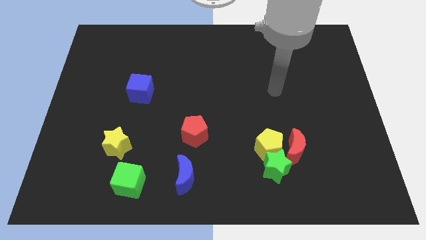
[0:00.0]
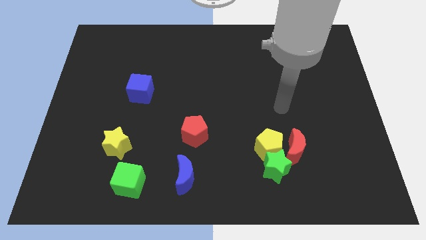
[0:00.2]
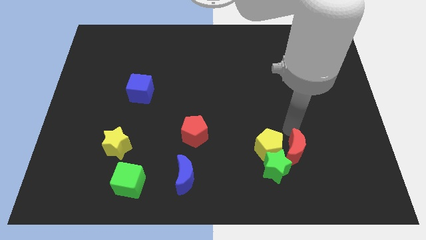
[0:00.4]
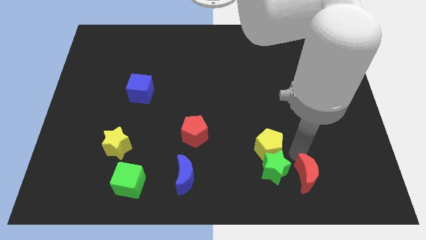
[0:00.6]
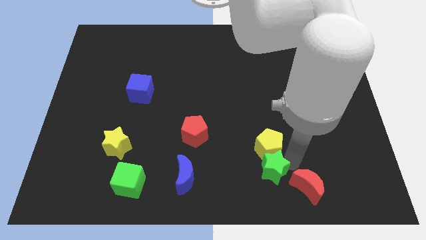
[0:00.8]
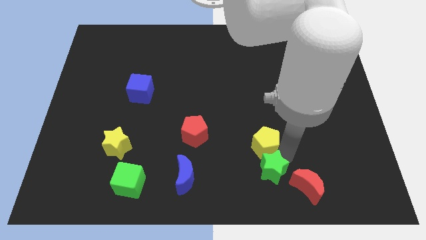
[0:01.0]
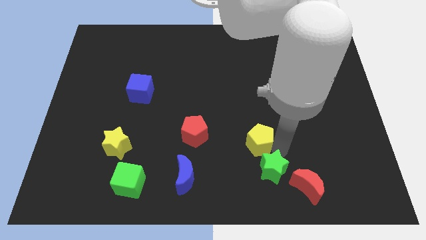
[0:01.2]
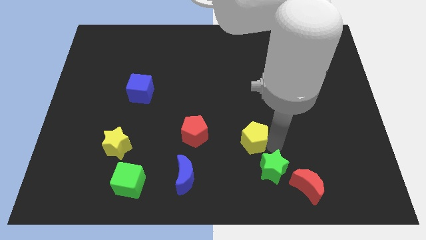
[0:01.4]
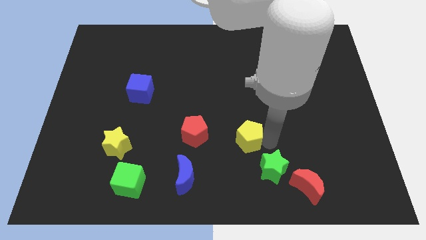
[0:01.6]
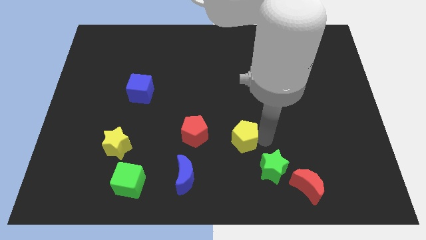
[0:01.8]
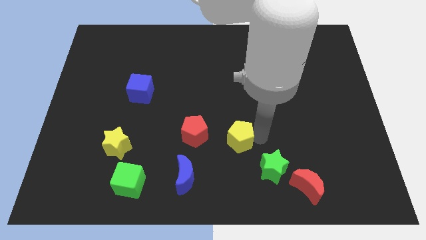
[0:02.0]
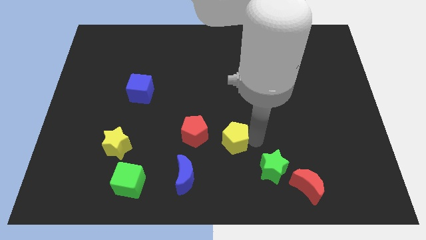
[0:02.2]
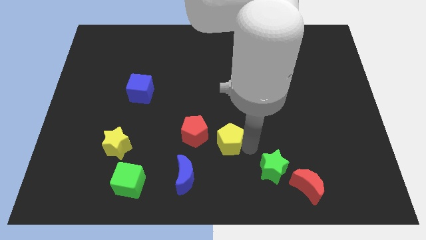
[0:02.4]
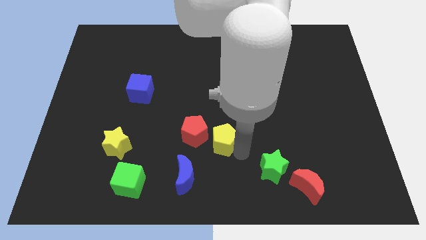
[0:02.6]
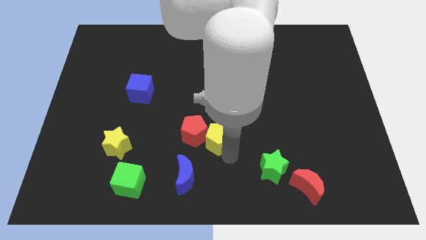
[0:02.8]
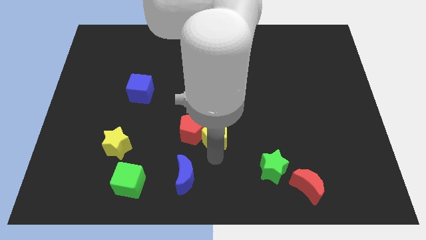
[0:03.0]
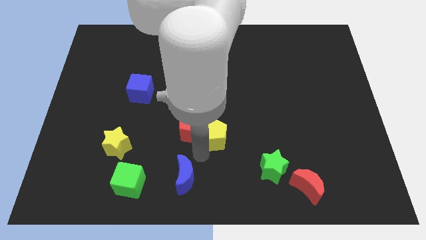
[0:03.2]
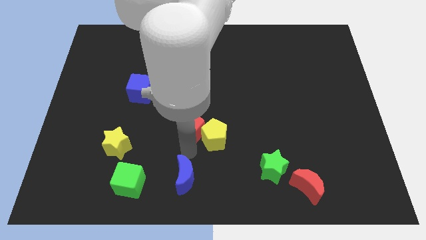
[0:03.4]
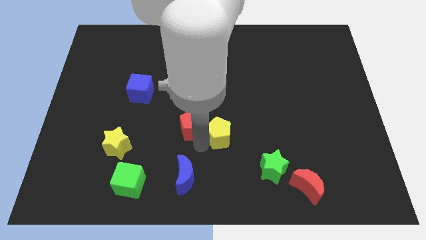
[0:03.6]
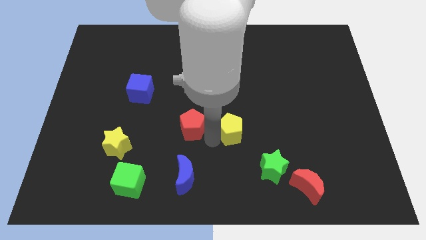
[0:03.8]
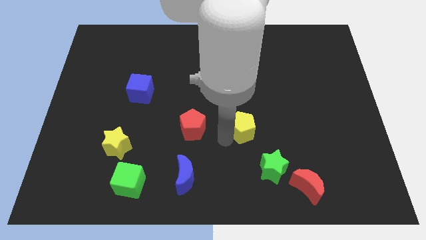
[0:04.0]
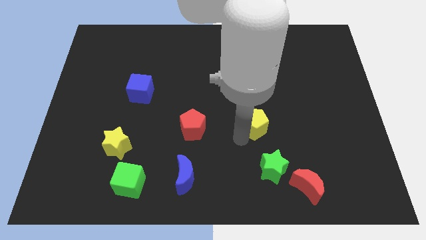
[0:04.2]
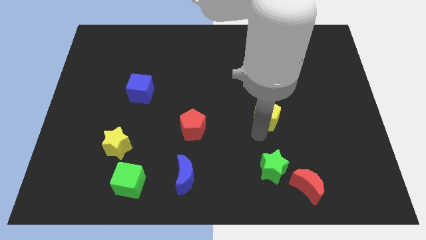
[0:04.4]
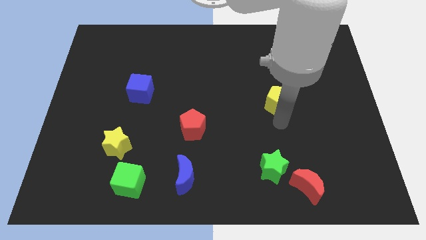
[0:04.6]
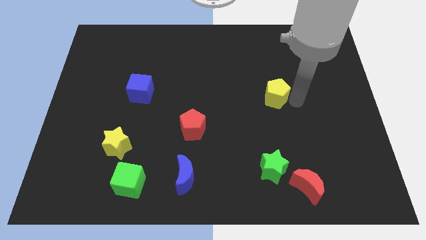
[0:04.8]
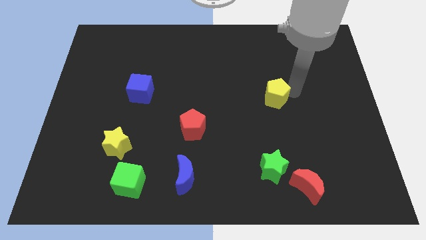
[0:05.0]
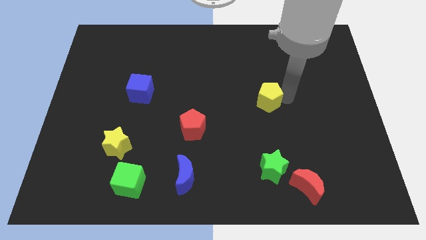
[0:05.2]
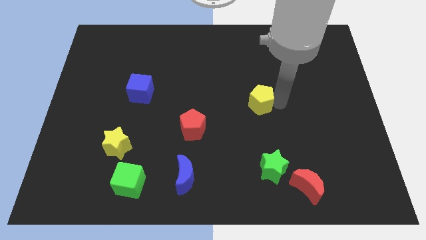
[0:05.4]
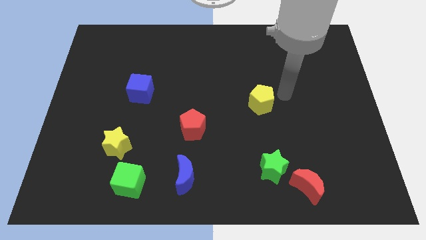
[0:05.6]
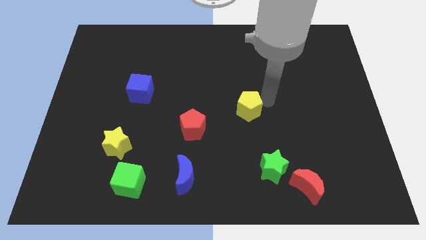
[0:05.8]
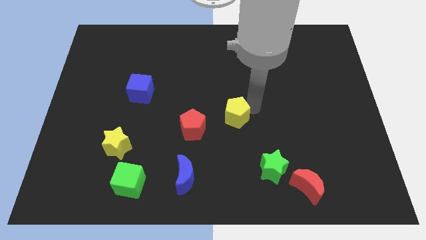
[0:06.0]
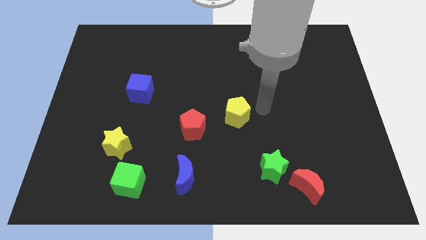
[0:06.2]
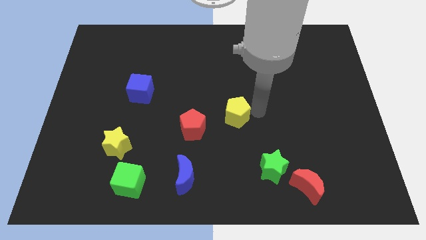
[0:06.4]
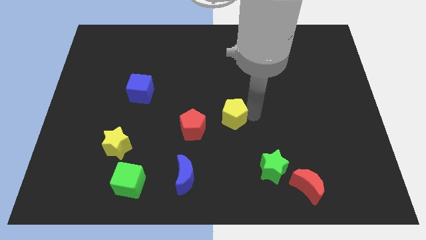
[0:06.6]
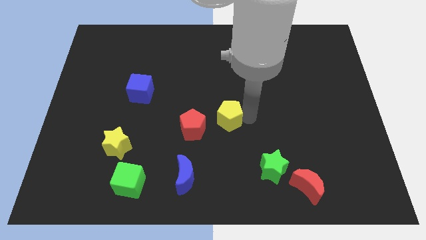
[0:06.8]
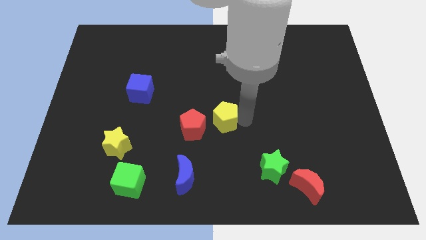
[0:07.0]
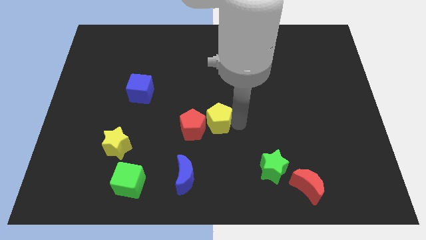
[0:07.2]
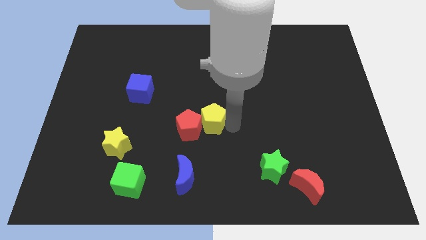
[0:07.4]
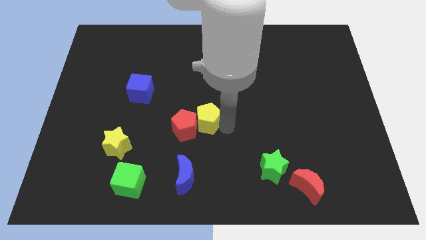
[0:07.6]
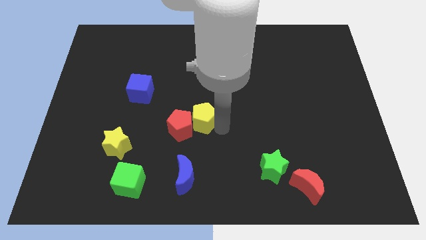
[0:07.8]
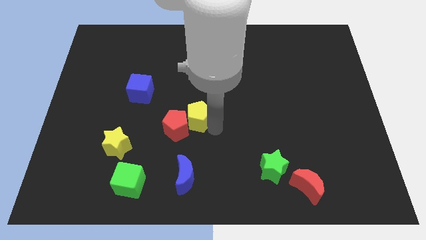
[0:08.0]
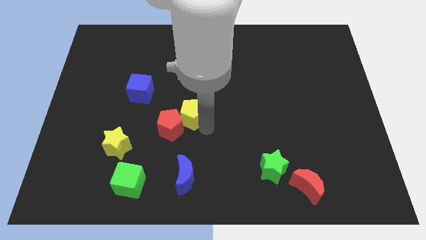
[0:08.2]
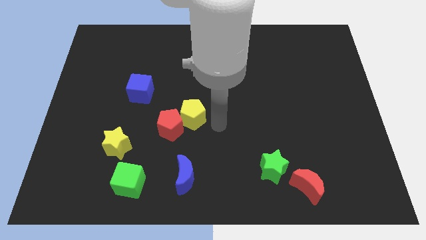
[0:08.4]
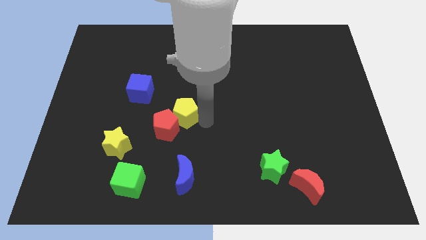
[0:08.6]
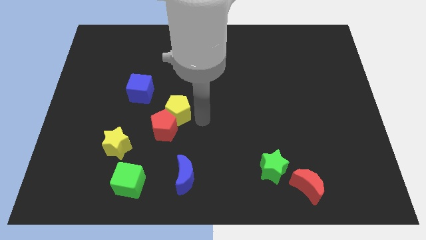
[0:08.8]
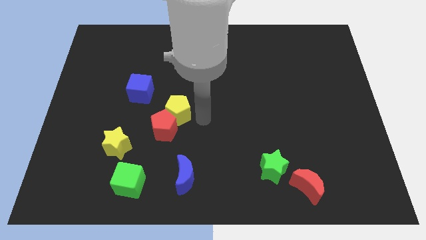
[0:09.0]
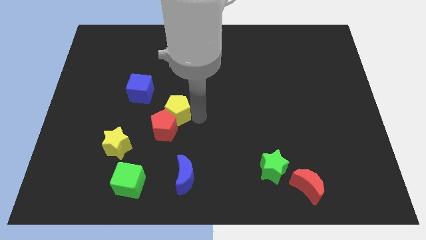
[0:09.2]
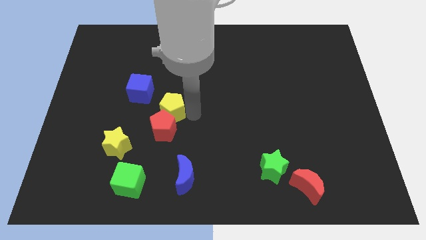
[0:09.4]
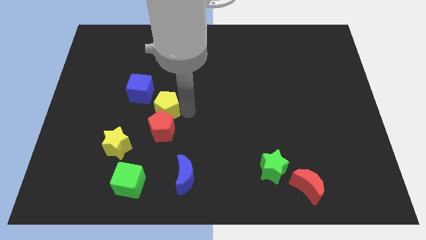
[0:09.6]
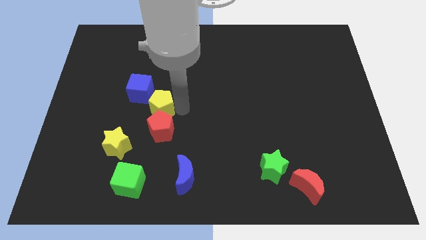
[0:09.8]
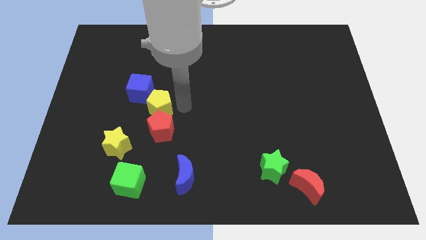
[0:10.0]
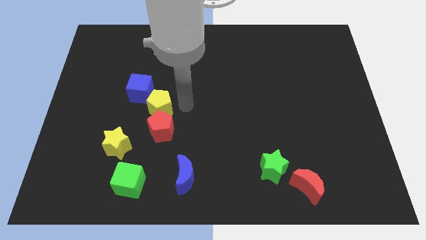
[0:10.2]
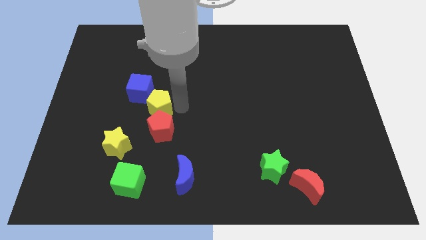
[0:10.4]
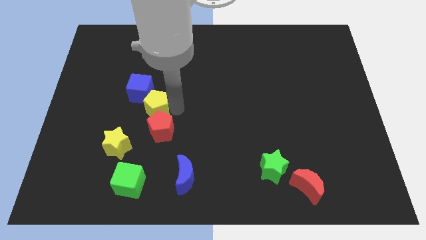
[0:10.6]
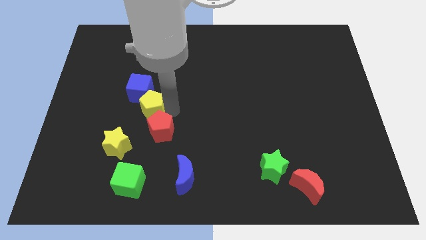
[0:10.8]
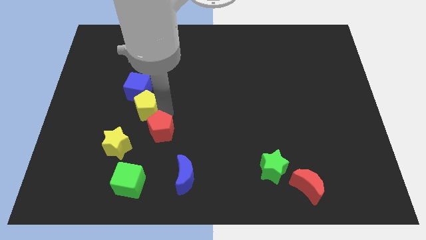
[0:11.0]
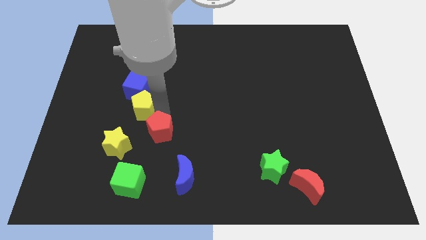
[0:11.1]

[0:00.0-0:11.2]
put the yellow pentagon to the top side of the yellow star
